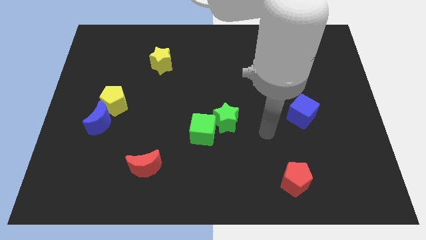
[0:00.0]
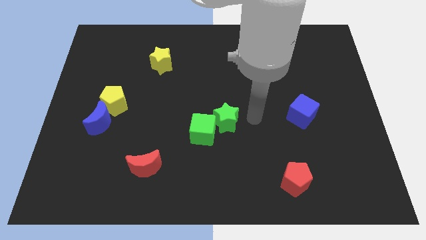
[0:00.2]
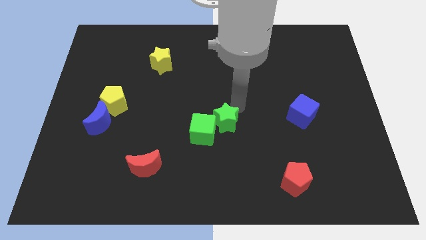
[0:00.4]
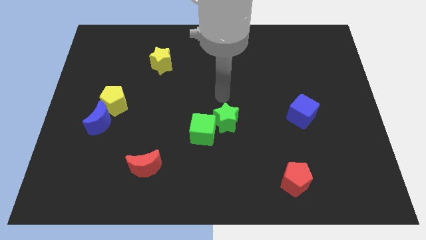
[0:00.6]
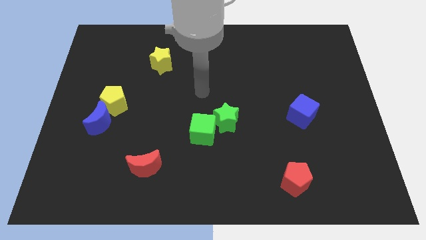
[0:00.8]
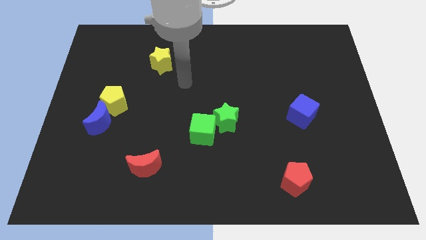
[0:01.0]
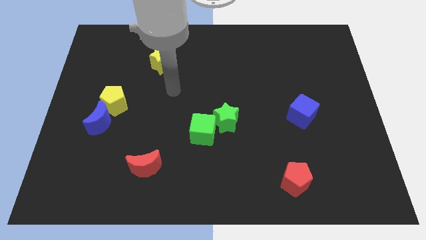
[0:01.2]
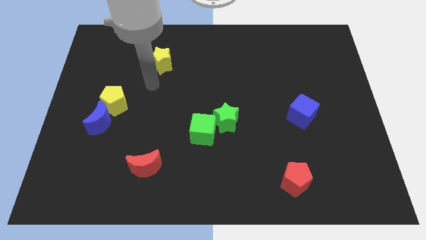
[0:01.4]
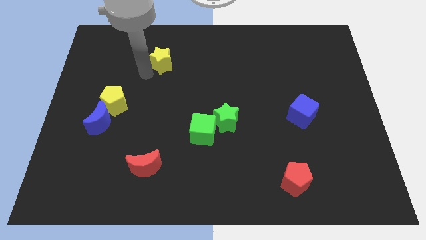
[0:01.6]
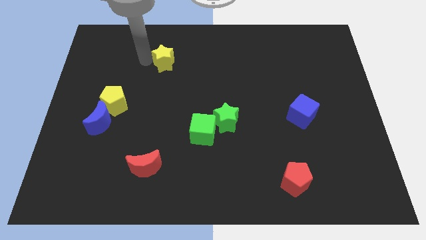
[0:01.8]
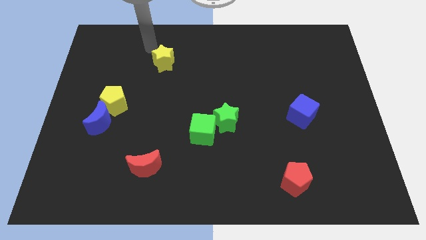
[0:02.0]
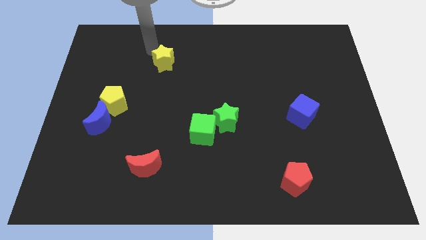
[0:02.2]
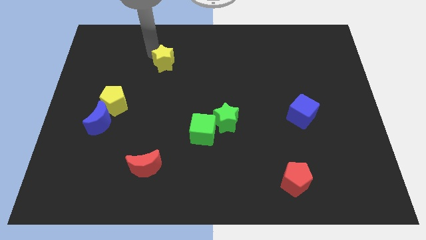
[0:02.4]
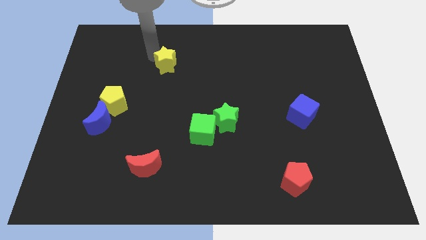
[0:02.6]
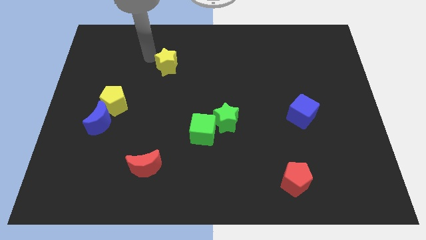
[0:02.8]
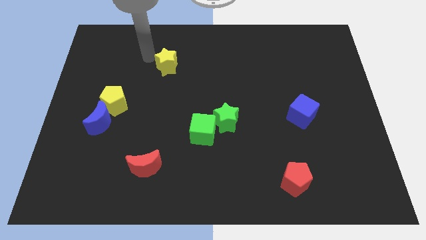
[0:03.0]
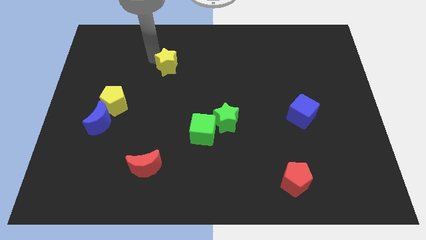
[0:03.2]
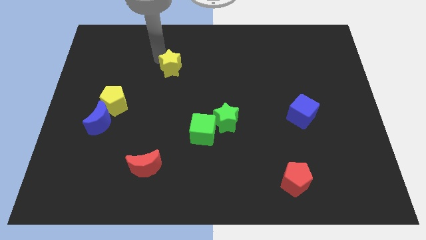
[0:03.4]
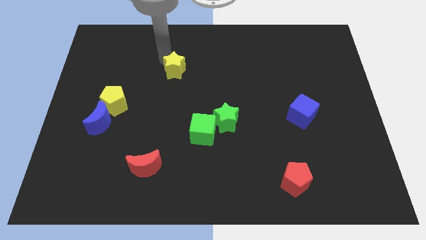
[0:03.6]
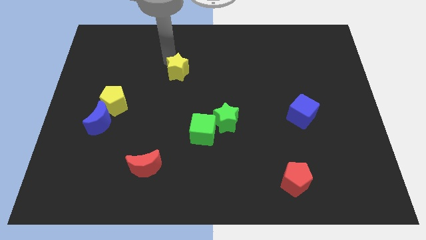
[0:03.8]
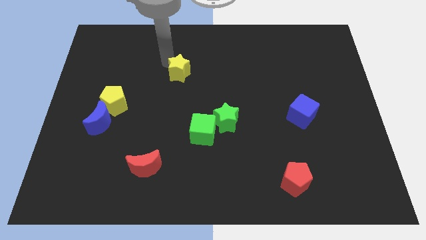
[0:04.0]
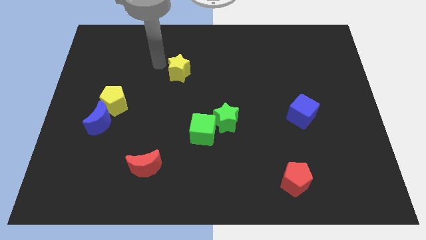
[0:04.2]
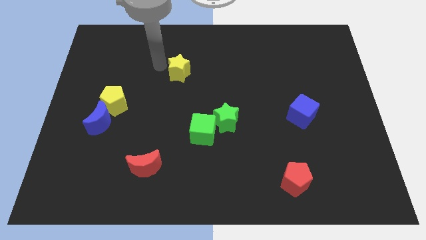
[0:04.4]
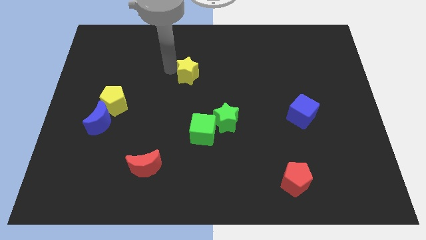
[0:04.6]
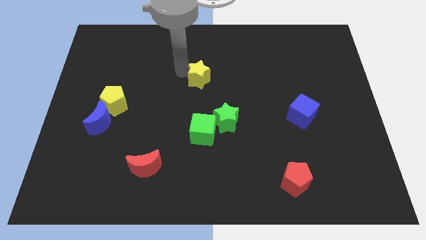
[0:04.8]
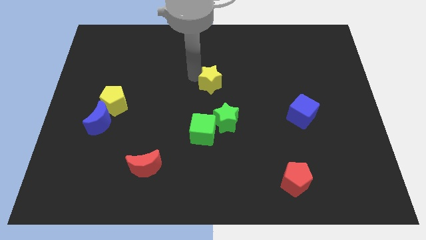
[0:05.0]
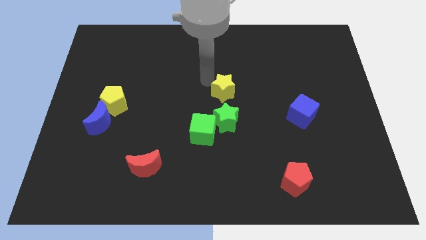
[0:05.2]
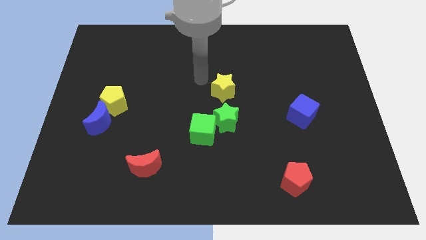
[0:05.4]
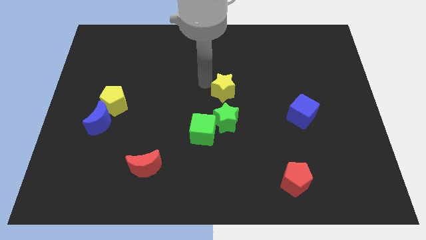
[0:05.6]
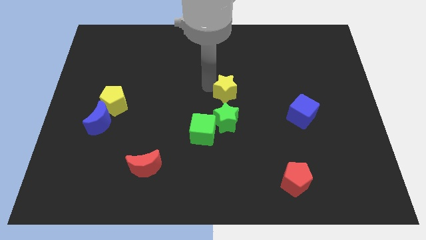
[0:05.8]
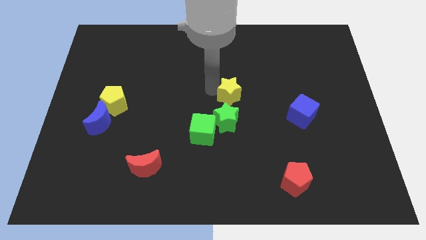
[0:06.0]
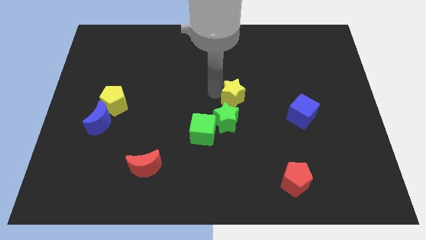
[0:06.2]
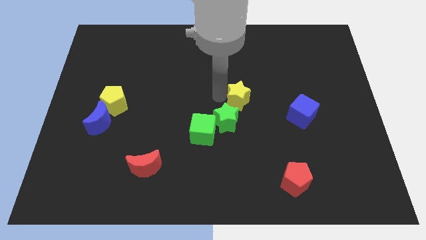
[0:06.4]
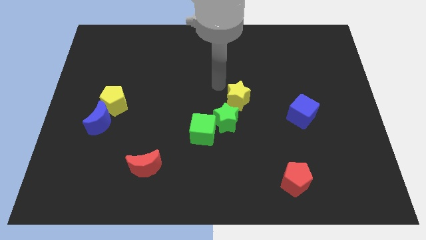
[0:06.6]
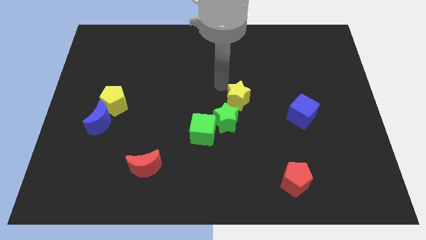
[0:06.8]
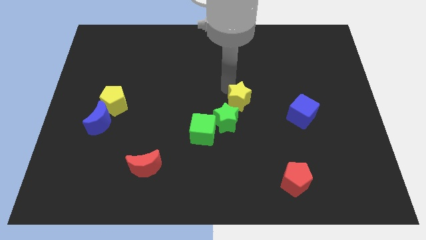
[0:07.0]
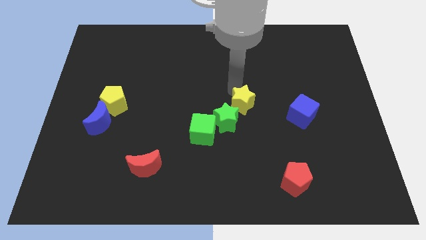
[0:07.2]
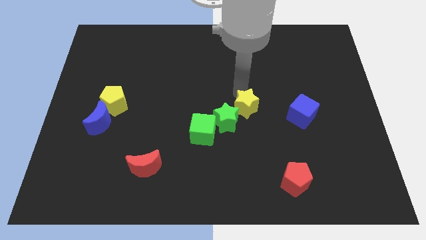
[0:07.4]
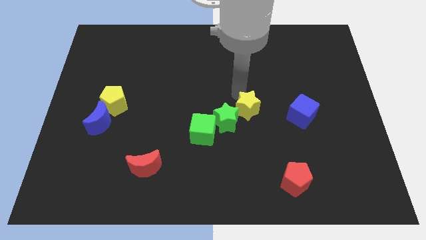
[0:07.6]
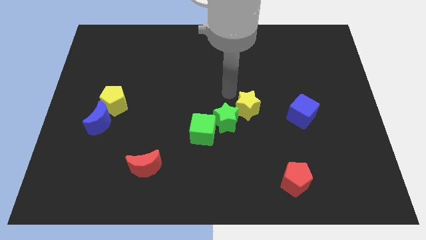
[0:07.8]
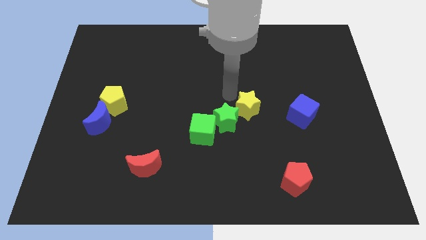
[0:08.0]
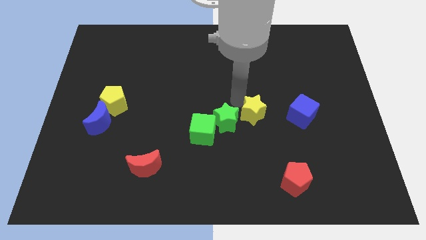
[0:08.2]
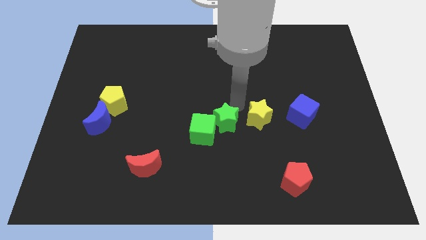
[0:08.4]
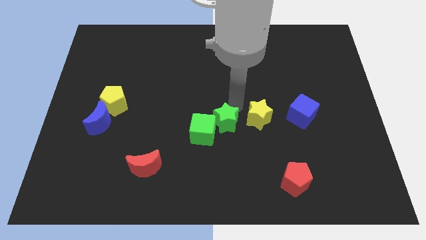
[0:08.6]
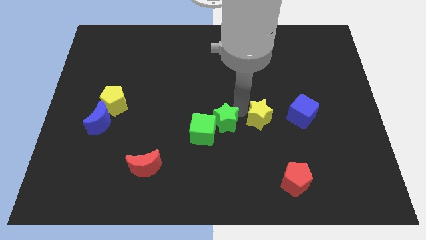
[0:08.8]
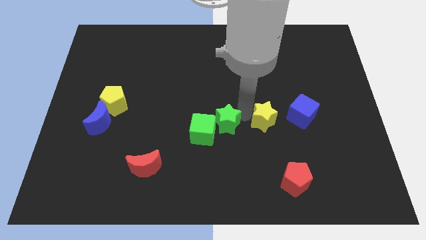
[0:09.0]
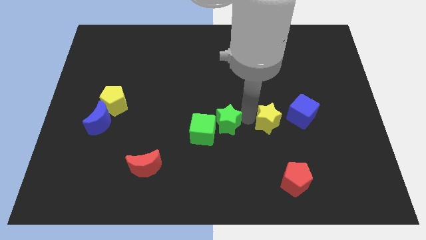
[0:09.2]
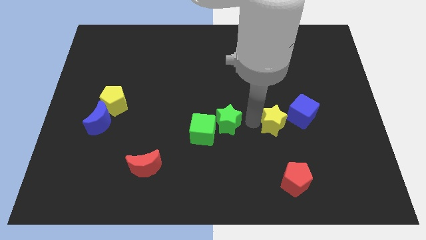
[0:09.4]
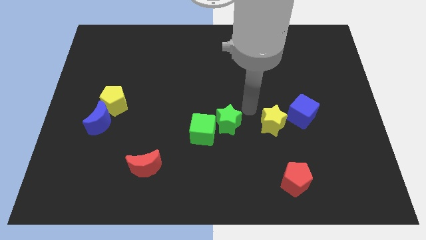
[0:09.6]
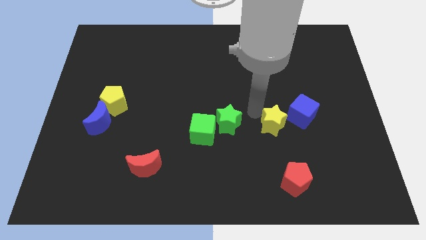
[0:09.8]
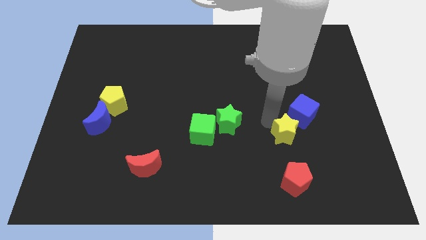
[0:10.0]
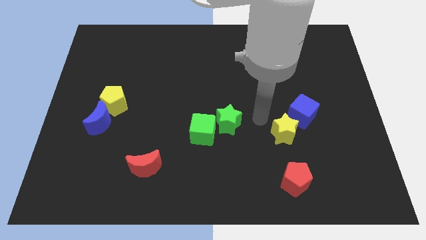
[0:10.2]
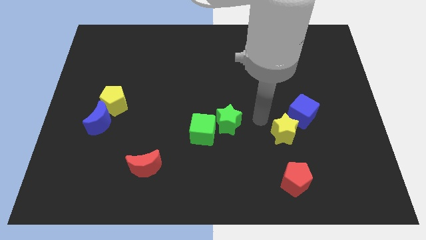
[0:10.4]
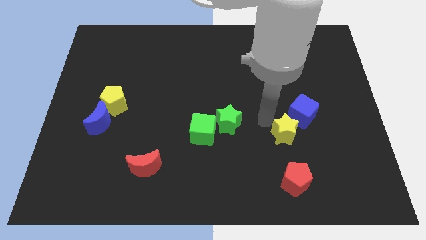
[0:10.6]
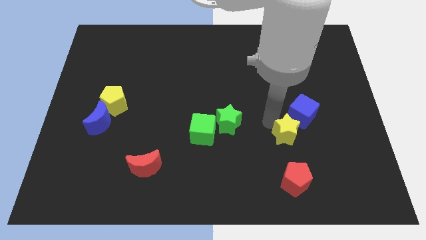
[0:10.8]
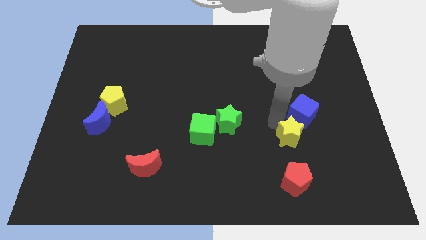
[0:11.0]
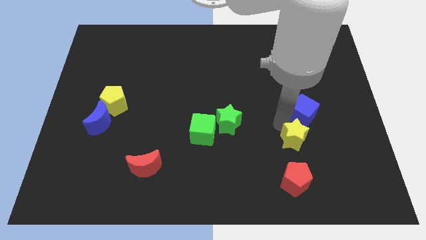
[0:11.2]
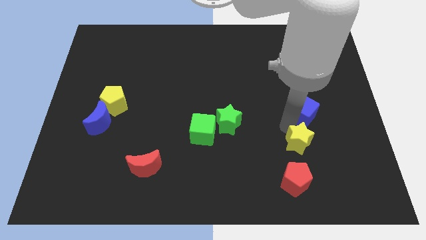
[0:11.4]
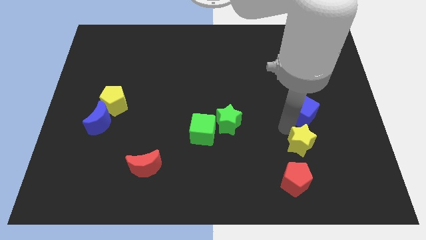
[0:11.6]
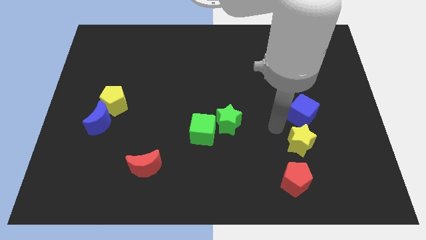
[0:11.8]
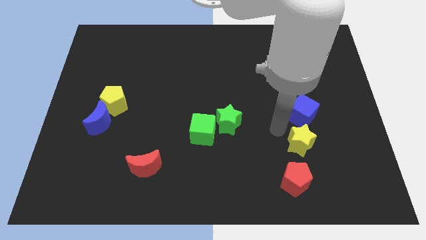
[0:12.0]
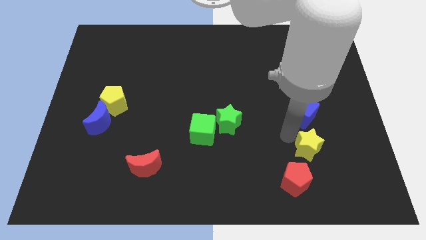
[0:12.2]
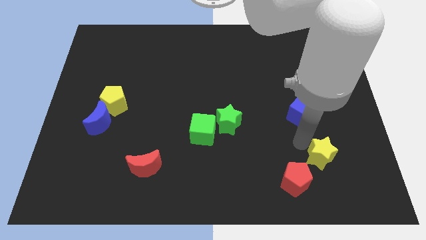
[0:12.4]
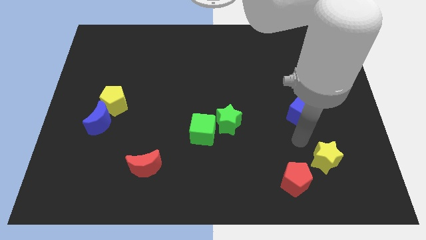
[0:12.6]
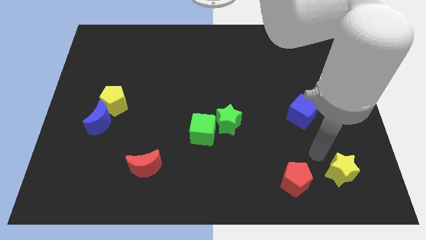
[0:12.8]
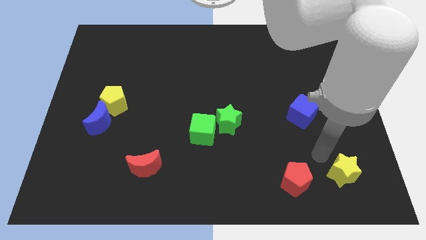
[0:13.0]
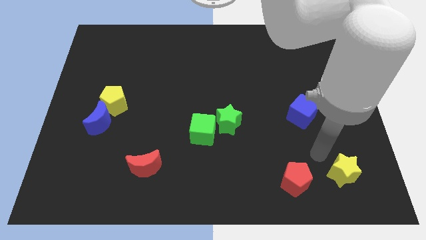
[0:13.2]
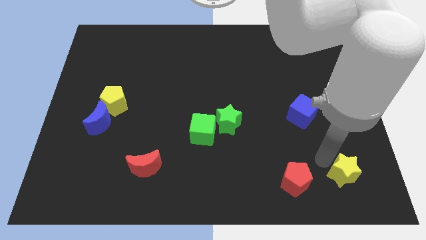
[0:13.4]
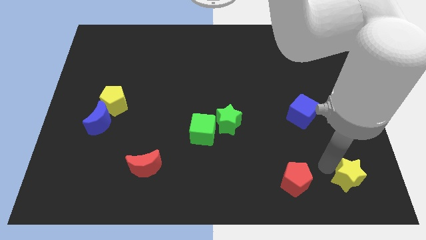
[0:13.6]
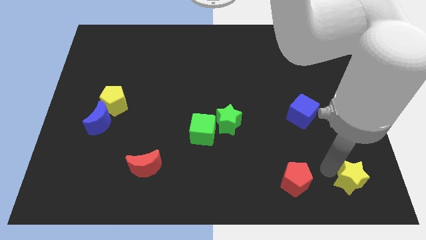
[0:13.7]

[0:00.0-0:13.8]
move the yellow star to the bottom right
